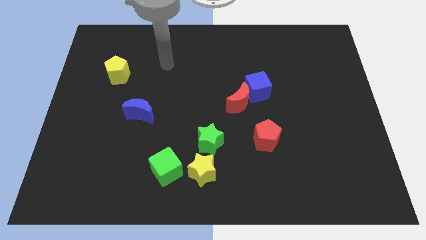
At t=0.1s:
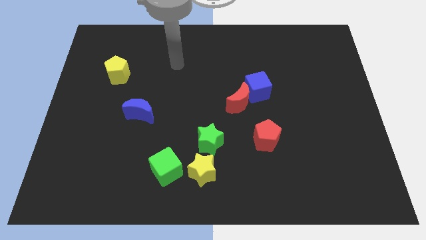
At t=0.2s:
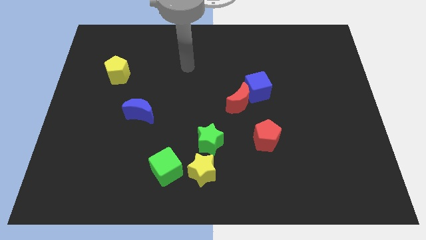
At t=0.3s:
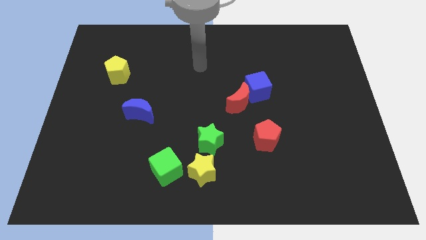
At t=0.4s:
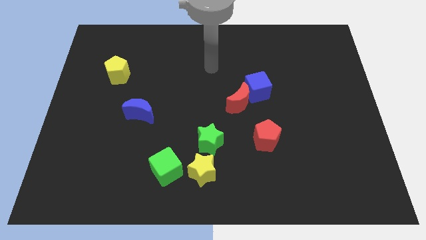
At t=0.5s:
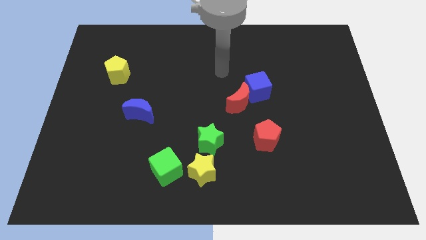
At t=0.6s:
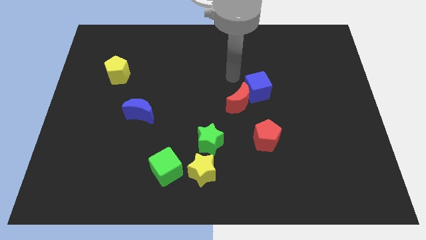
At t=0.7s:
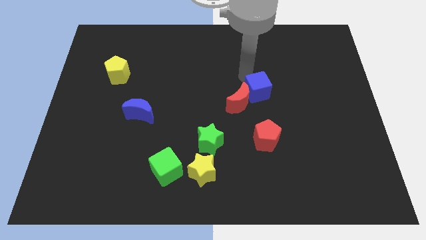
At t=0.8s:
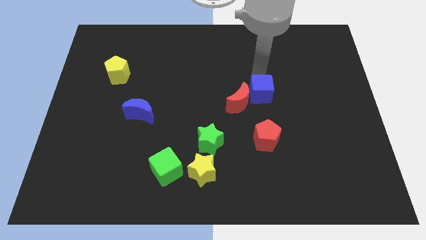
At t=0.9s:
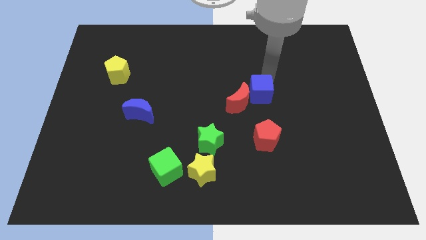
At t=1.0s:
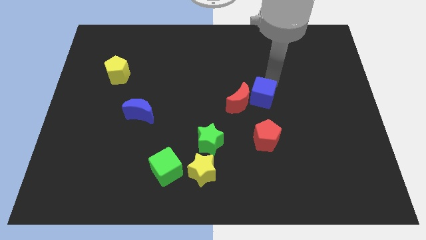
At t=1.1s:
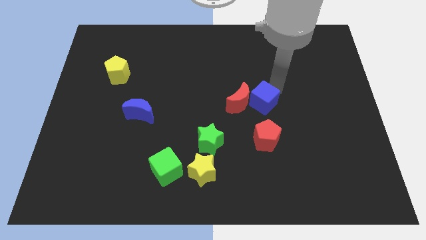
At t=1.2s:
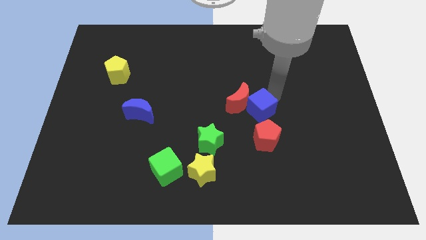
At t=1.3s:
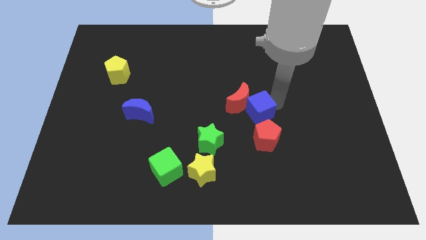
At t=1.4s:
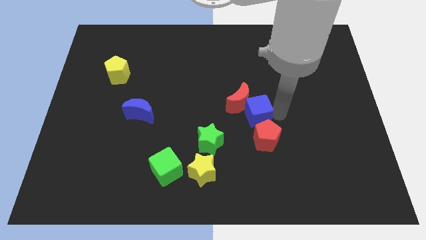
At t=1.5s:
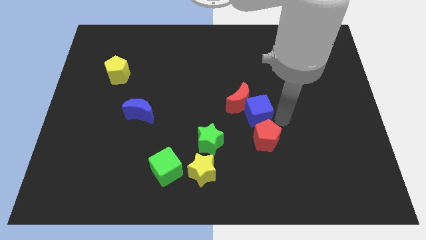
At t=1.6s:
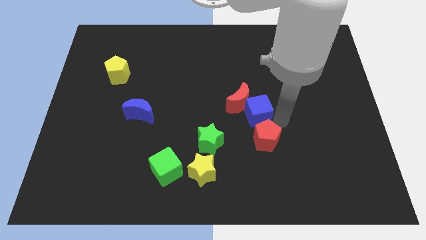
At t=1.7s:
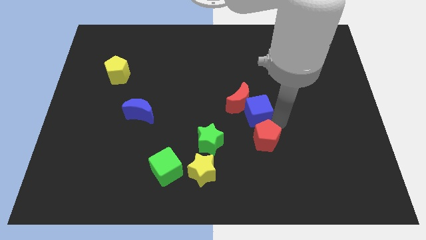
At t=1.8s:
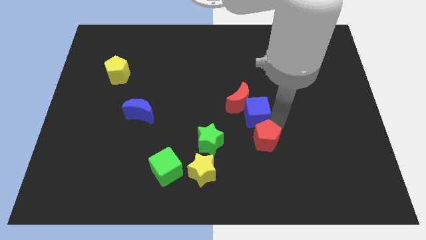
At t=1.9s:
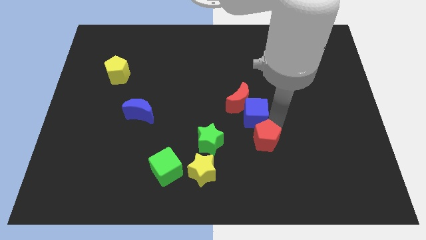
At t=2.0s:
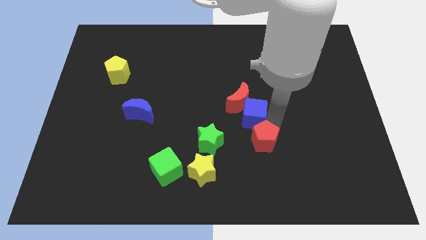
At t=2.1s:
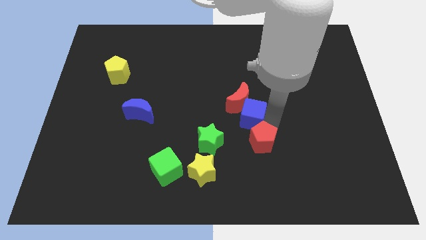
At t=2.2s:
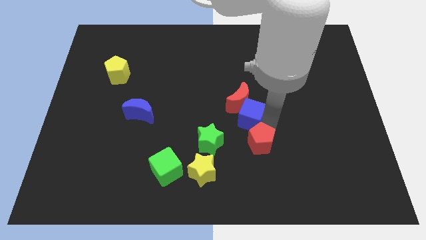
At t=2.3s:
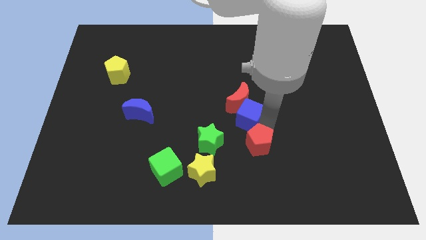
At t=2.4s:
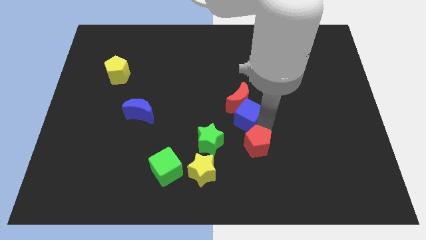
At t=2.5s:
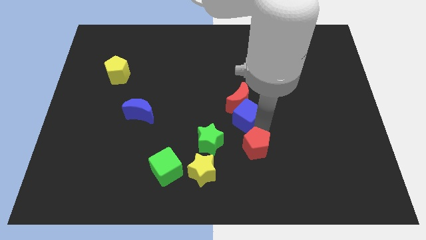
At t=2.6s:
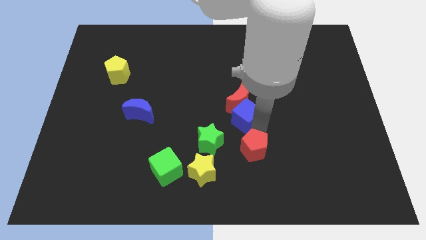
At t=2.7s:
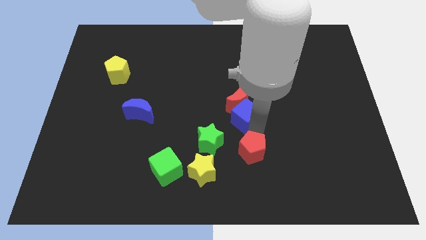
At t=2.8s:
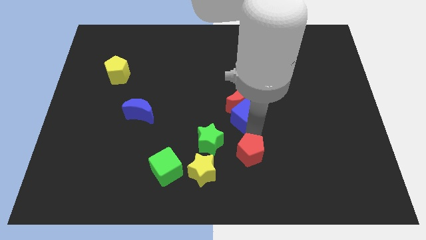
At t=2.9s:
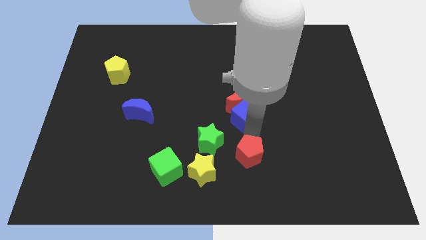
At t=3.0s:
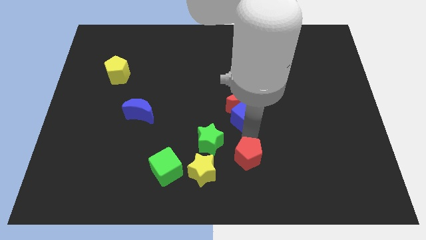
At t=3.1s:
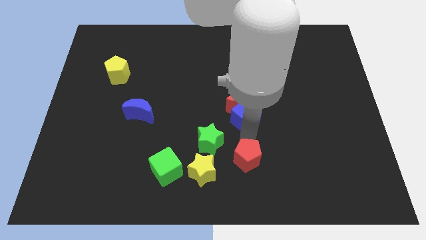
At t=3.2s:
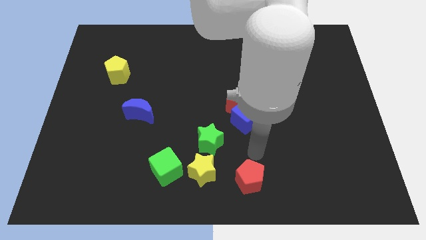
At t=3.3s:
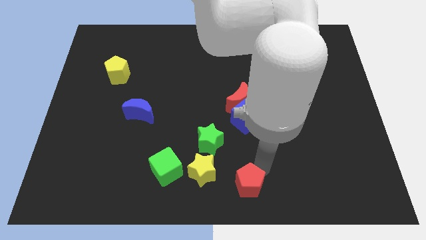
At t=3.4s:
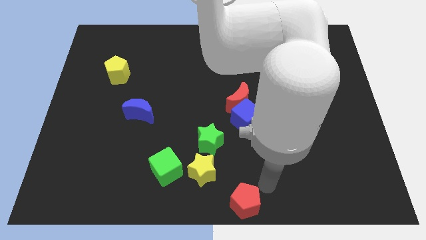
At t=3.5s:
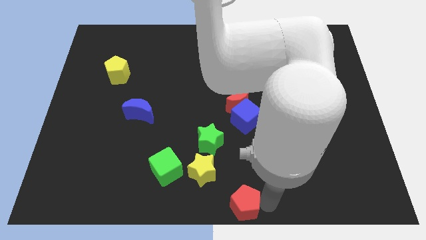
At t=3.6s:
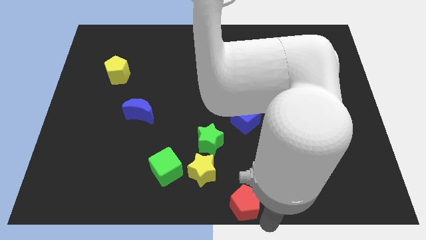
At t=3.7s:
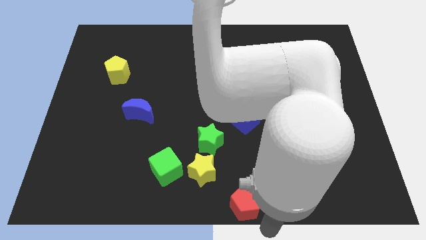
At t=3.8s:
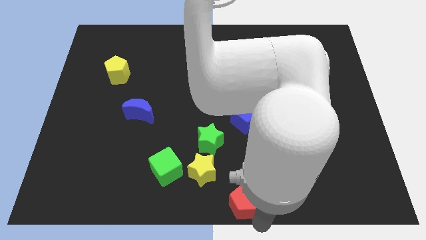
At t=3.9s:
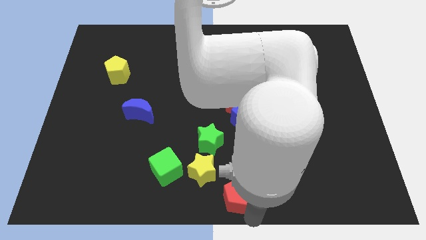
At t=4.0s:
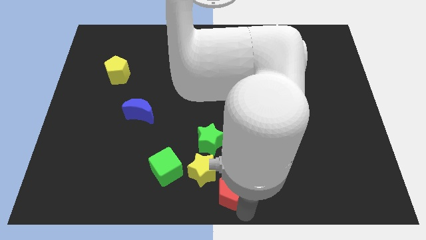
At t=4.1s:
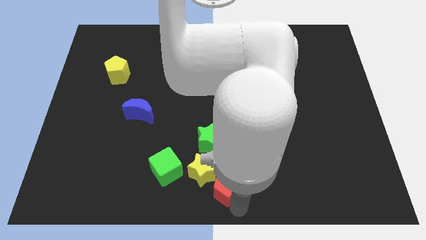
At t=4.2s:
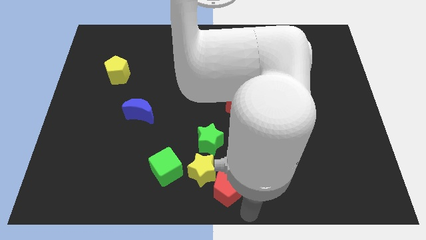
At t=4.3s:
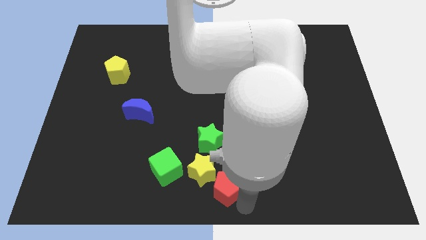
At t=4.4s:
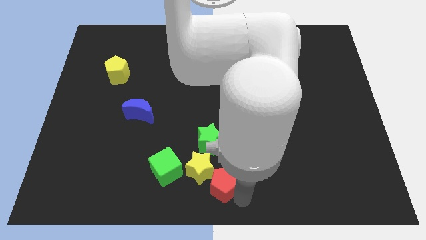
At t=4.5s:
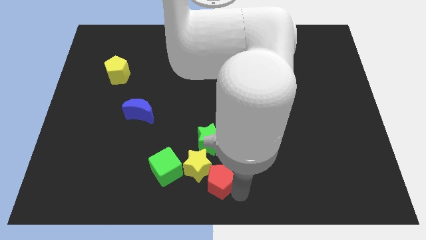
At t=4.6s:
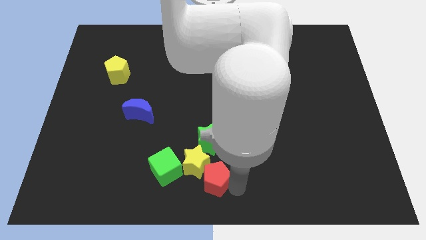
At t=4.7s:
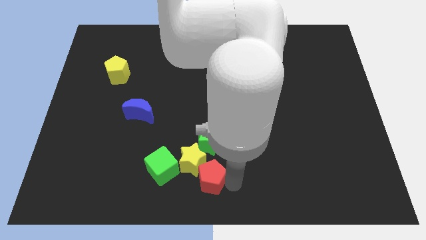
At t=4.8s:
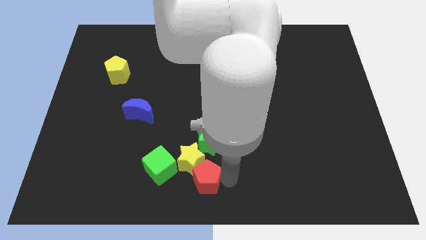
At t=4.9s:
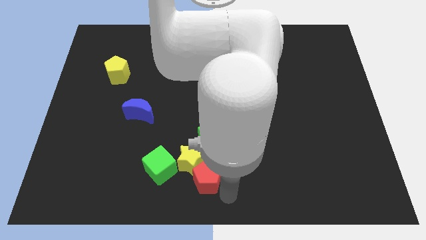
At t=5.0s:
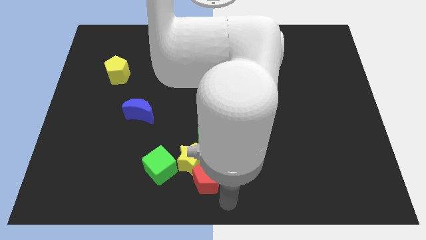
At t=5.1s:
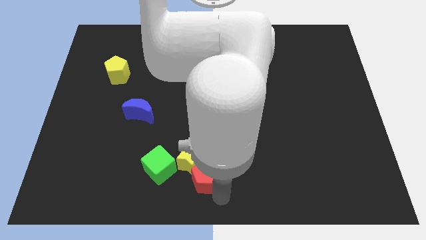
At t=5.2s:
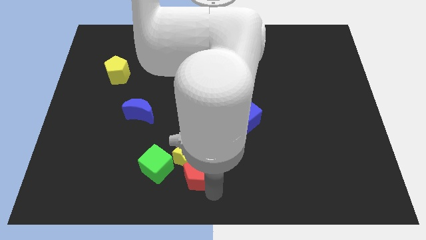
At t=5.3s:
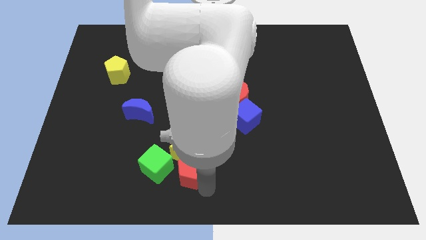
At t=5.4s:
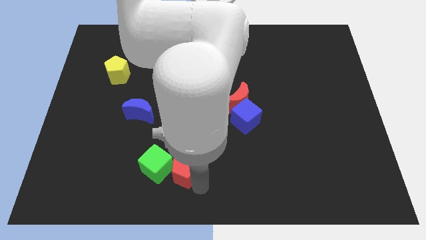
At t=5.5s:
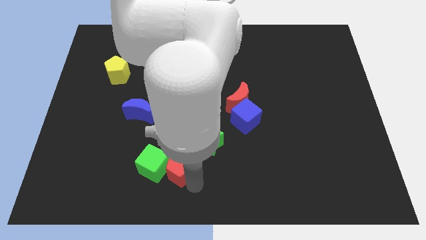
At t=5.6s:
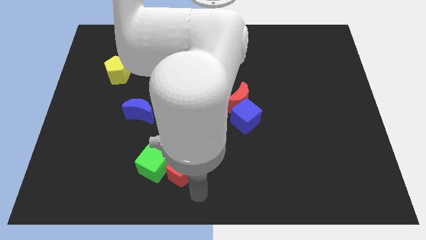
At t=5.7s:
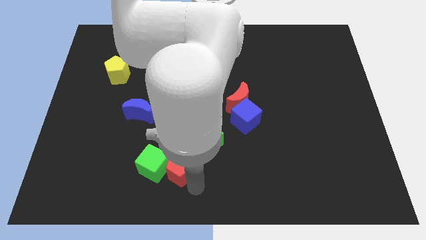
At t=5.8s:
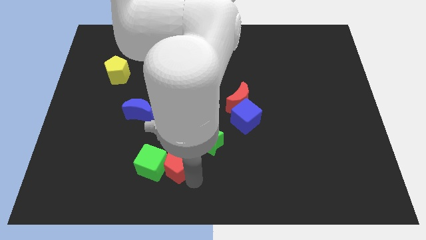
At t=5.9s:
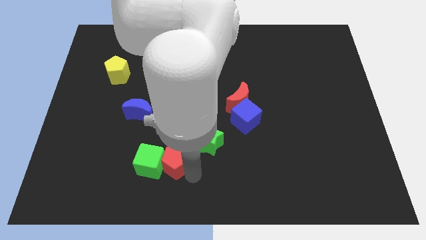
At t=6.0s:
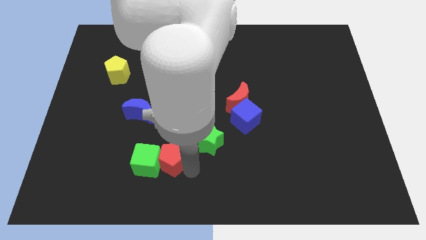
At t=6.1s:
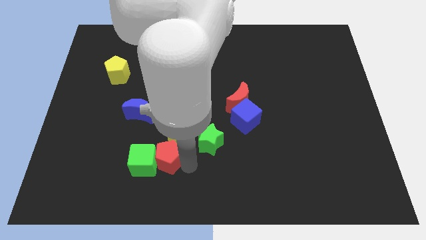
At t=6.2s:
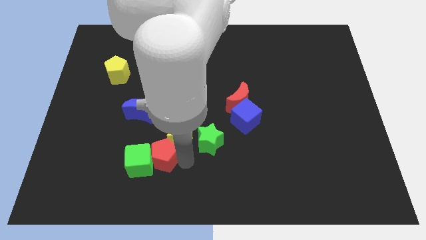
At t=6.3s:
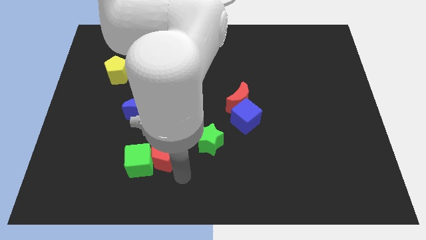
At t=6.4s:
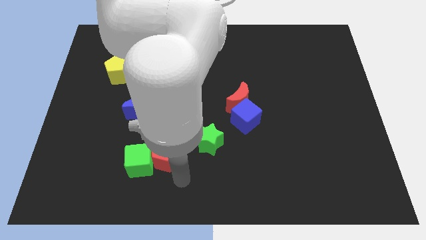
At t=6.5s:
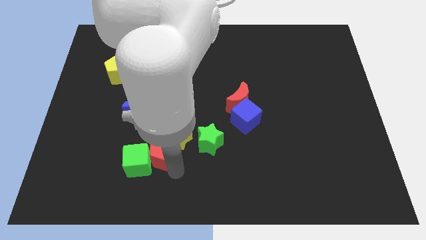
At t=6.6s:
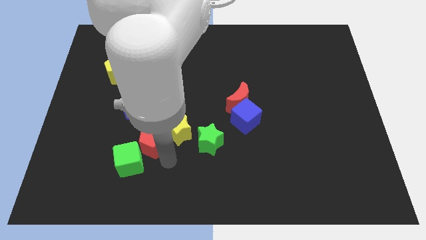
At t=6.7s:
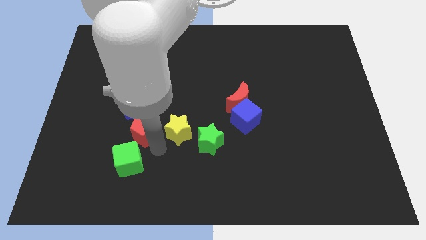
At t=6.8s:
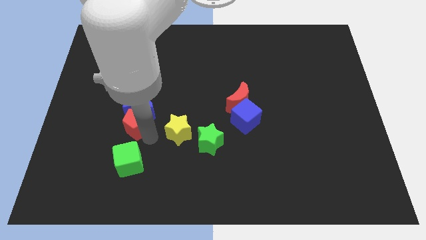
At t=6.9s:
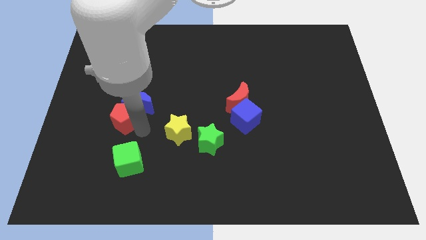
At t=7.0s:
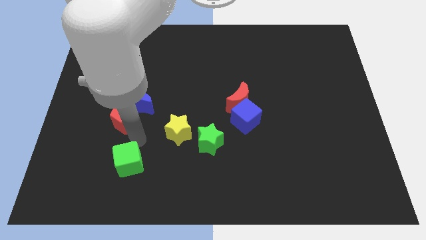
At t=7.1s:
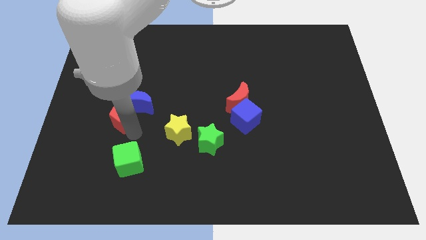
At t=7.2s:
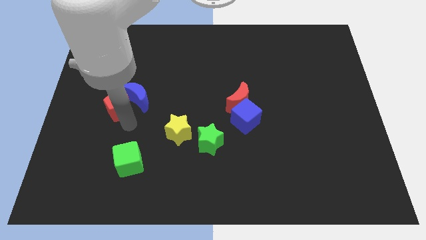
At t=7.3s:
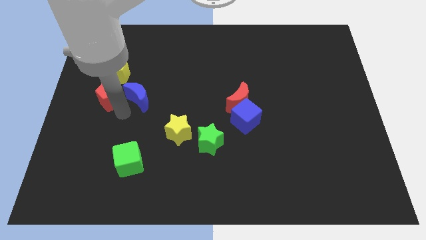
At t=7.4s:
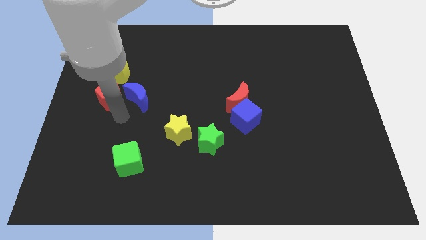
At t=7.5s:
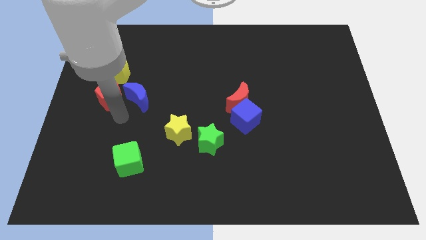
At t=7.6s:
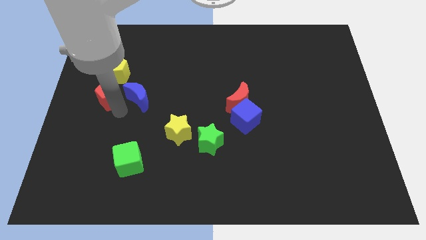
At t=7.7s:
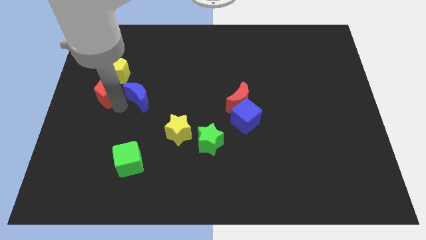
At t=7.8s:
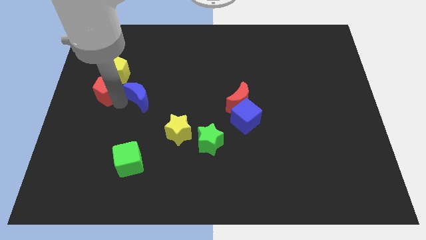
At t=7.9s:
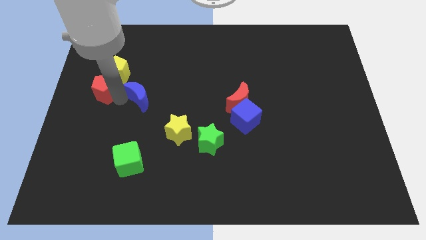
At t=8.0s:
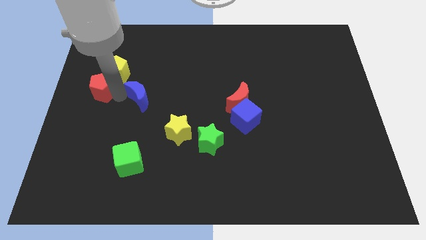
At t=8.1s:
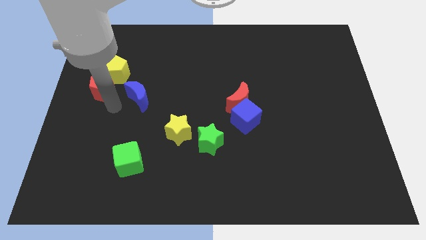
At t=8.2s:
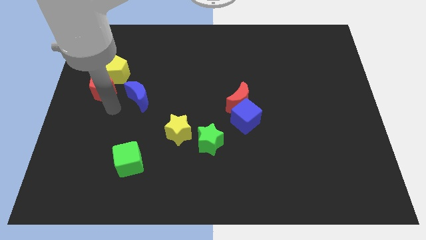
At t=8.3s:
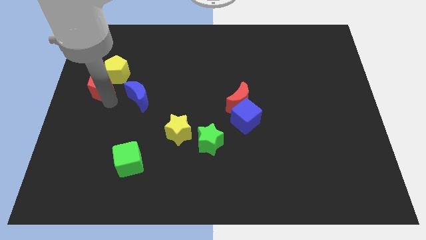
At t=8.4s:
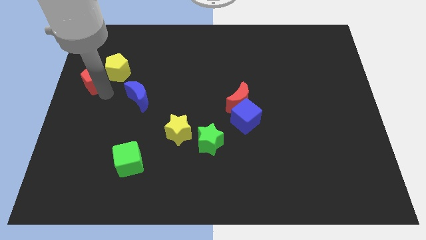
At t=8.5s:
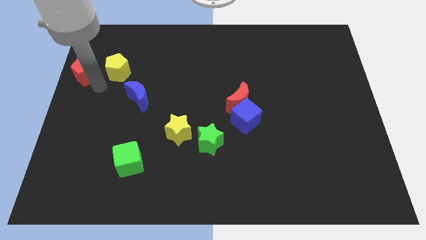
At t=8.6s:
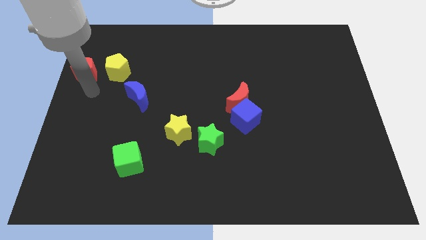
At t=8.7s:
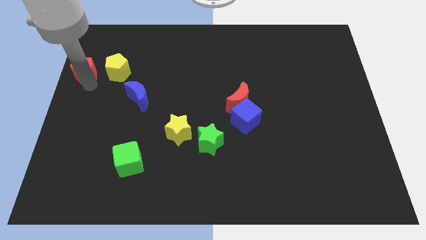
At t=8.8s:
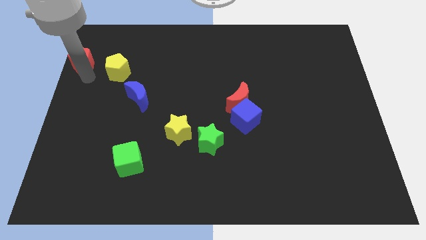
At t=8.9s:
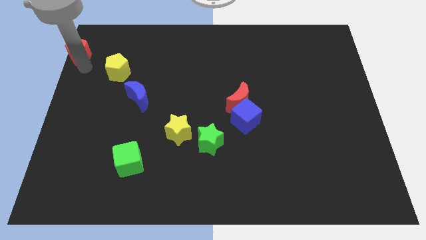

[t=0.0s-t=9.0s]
push the red pentagon to the top left of the board
